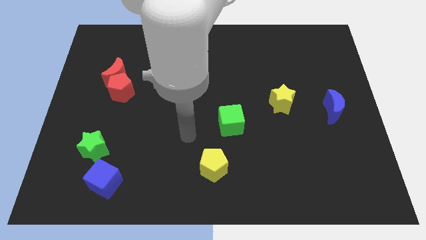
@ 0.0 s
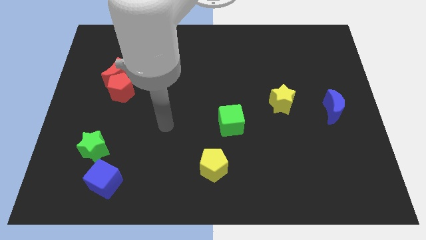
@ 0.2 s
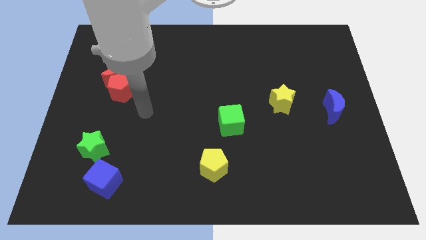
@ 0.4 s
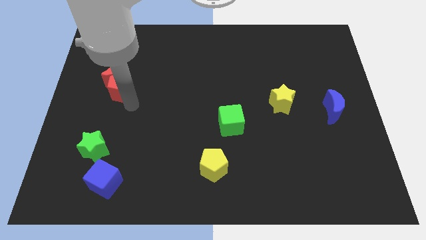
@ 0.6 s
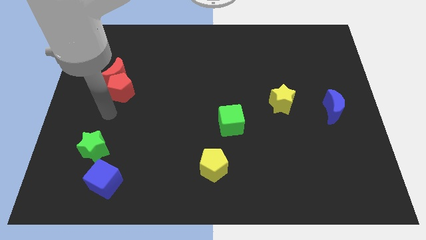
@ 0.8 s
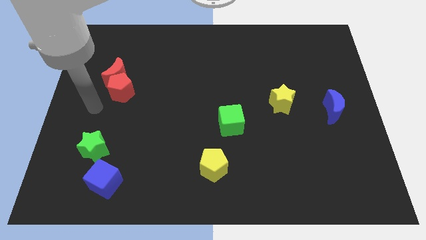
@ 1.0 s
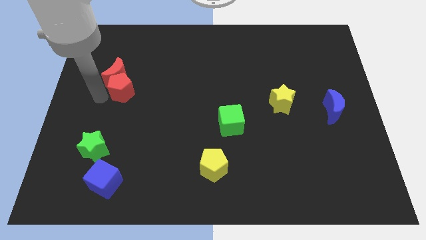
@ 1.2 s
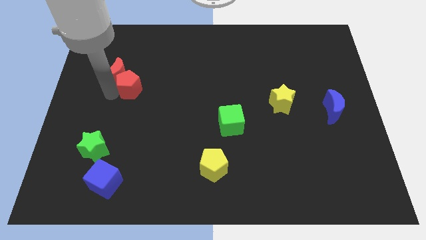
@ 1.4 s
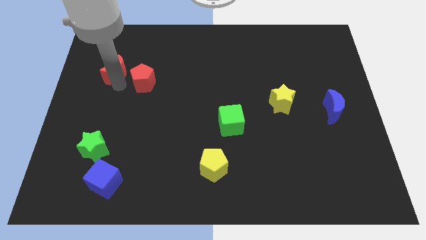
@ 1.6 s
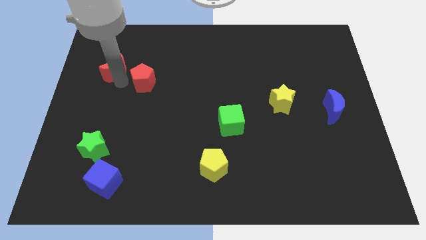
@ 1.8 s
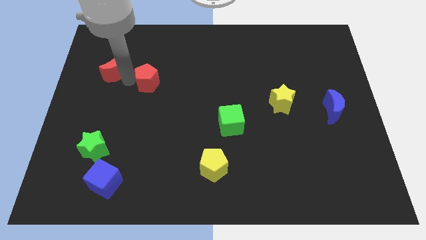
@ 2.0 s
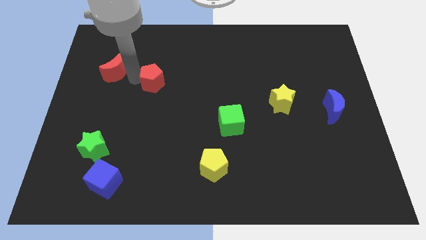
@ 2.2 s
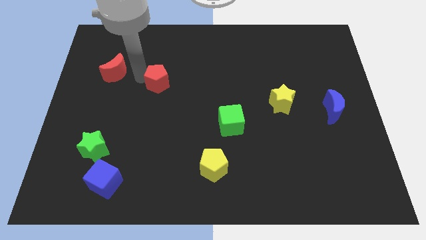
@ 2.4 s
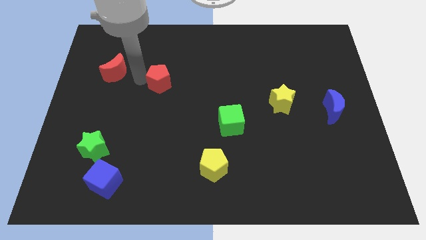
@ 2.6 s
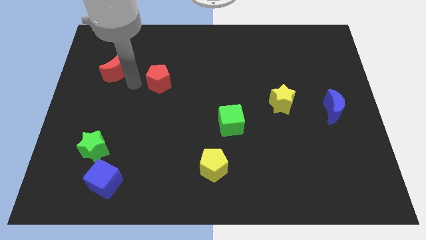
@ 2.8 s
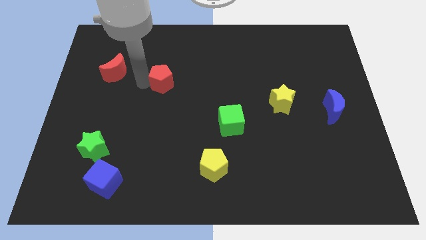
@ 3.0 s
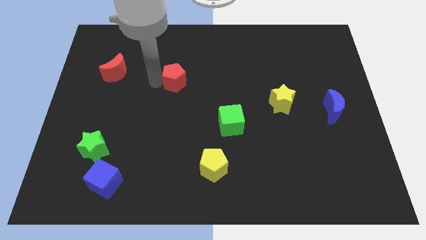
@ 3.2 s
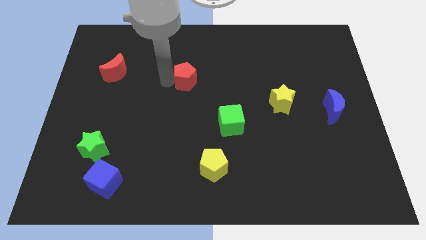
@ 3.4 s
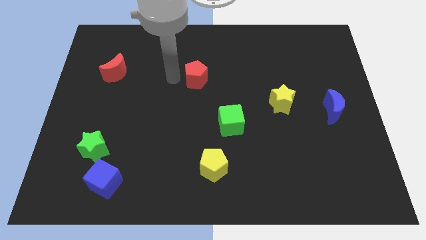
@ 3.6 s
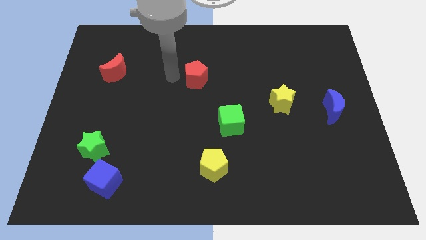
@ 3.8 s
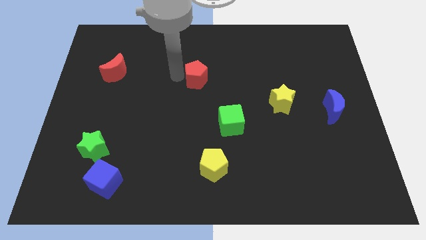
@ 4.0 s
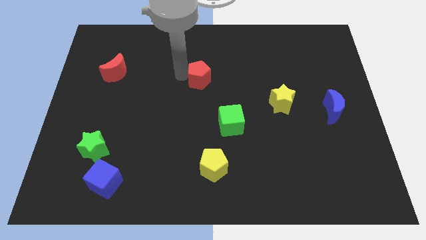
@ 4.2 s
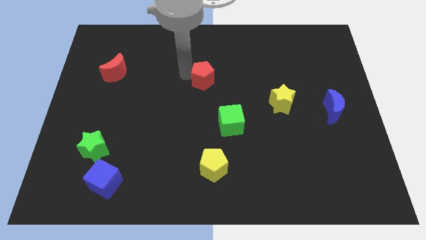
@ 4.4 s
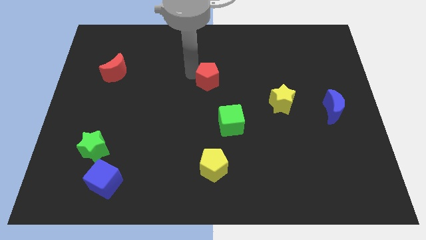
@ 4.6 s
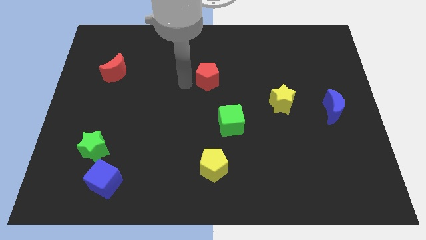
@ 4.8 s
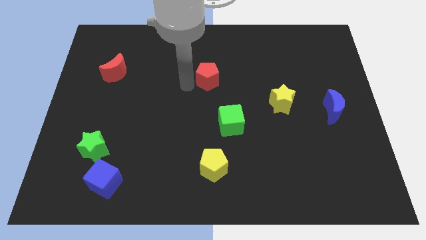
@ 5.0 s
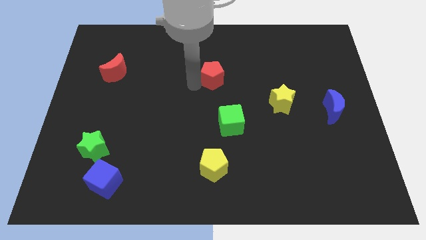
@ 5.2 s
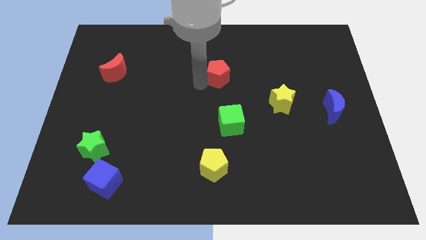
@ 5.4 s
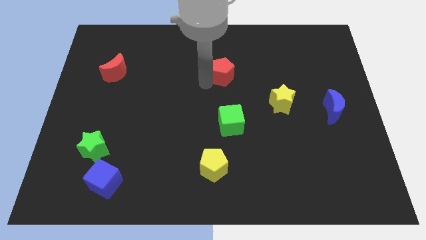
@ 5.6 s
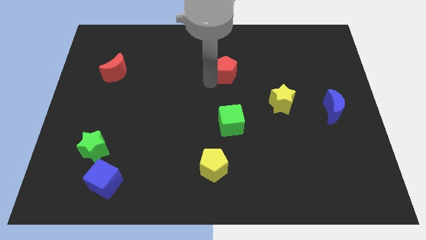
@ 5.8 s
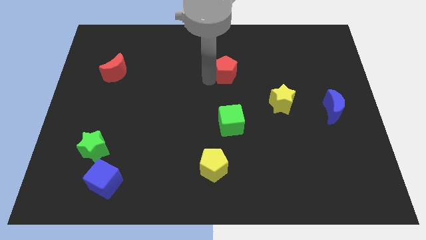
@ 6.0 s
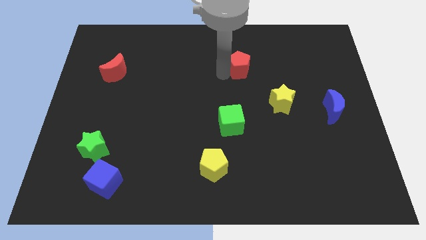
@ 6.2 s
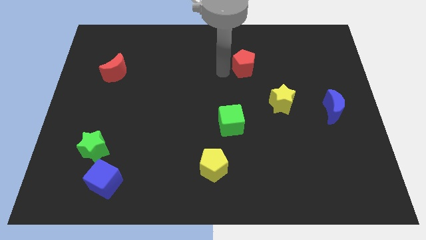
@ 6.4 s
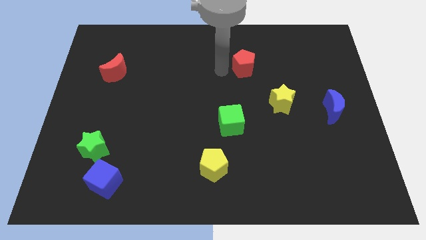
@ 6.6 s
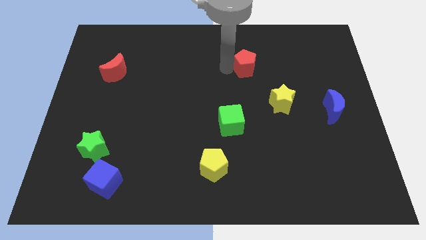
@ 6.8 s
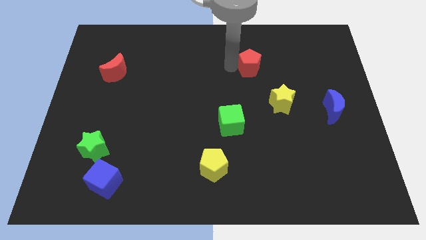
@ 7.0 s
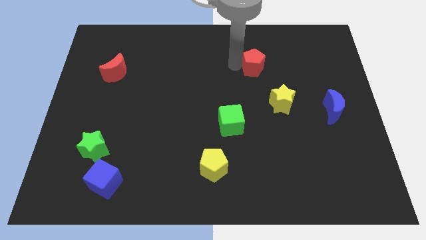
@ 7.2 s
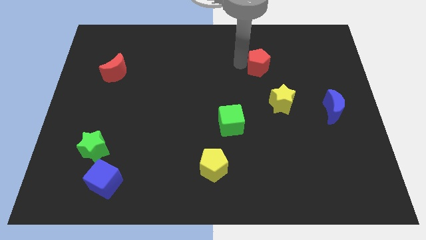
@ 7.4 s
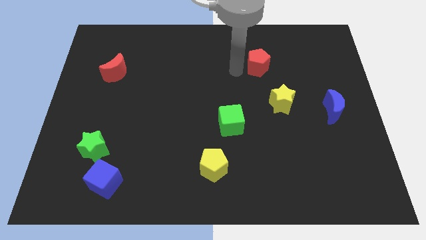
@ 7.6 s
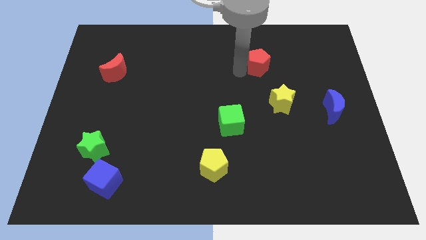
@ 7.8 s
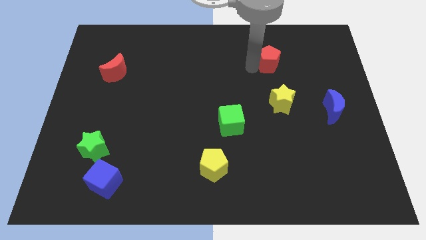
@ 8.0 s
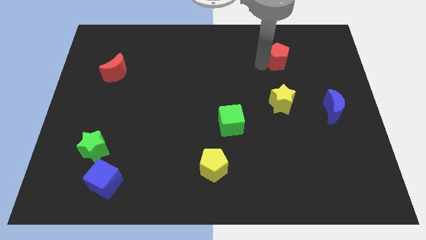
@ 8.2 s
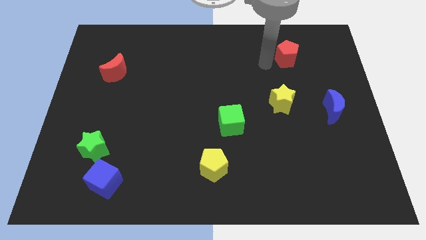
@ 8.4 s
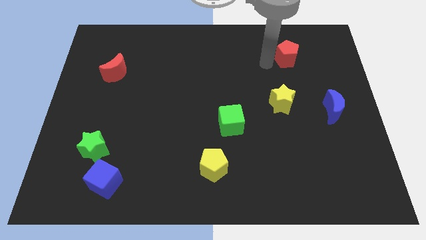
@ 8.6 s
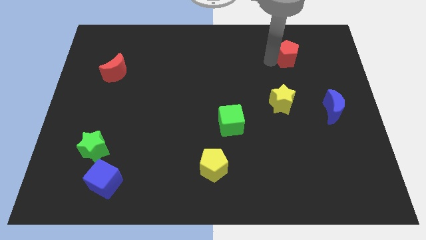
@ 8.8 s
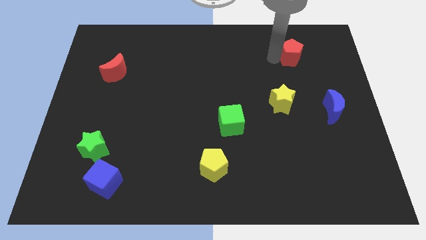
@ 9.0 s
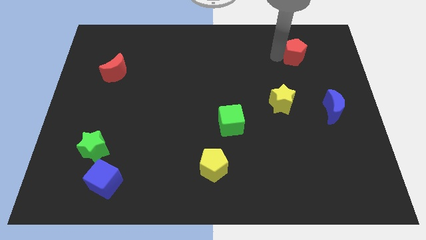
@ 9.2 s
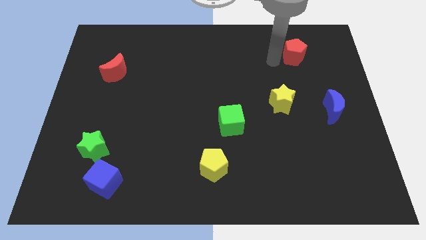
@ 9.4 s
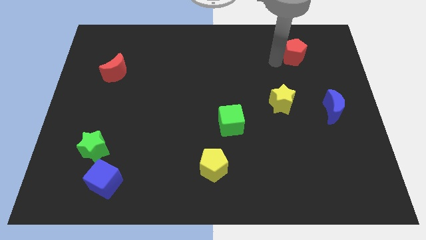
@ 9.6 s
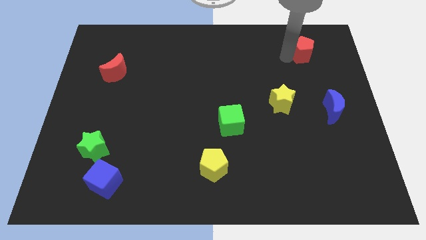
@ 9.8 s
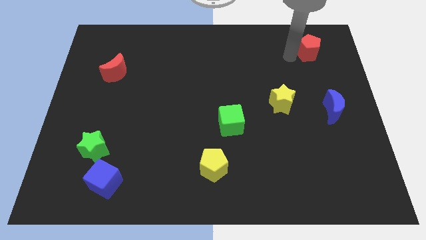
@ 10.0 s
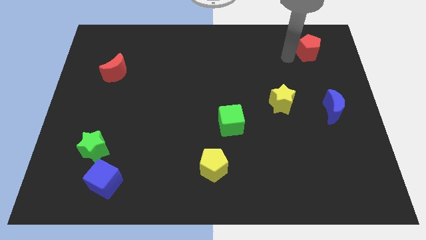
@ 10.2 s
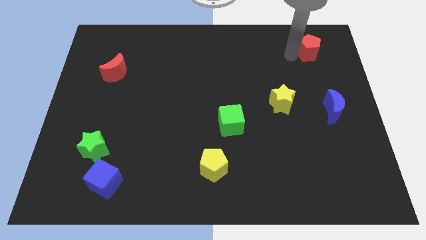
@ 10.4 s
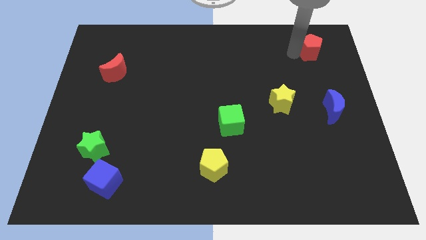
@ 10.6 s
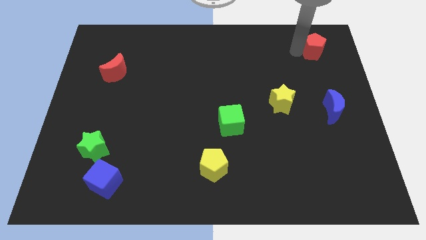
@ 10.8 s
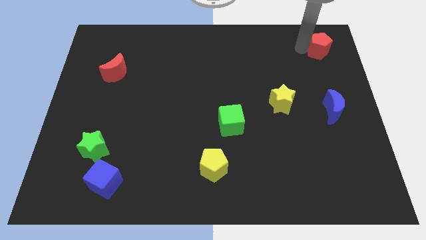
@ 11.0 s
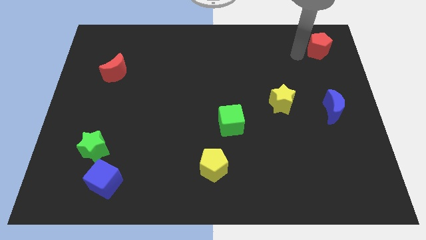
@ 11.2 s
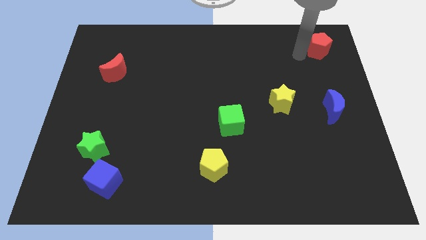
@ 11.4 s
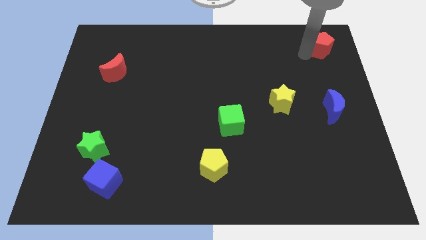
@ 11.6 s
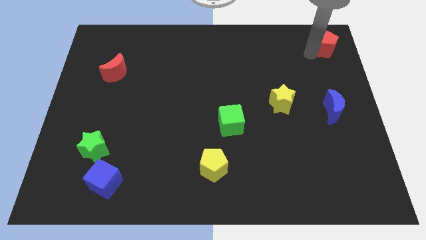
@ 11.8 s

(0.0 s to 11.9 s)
push the red pentagon to the upper right corner

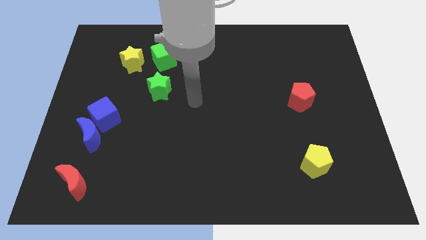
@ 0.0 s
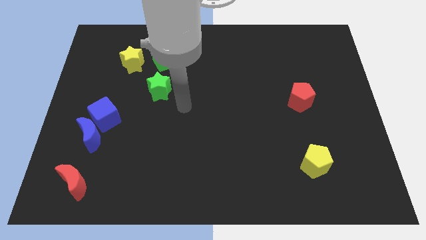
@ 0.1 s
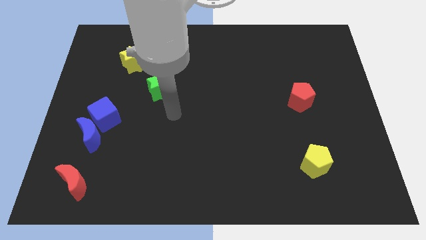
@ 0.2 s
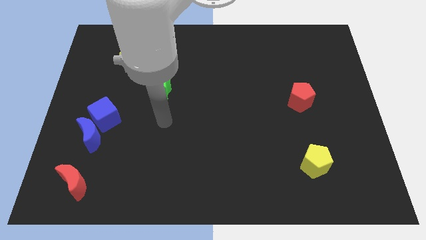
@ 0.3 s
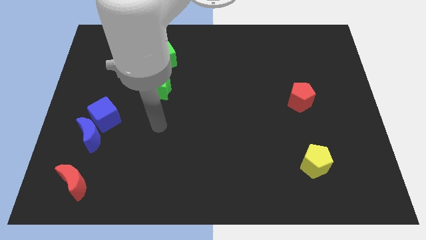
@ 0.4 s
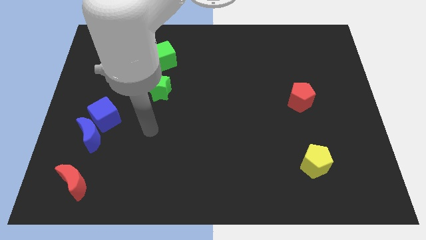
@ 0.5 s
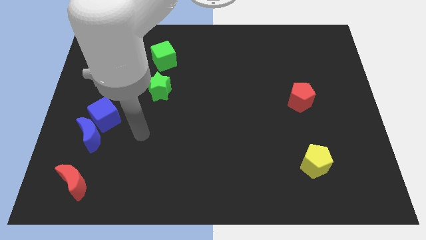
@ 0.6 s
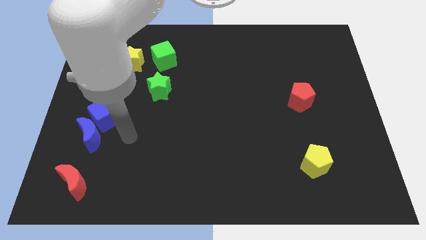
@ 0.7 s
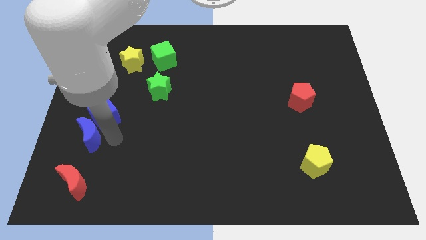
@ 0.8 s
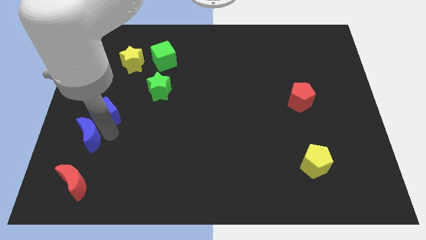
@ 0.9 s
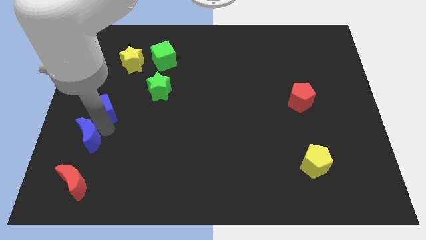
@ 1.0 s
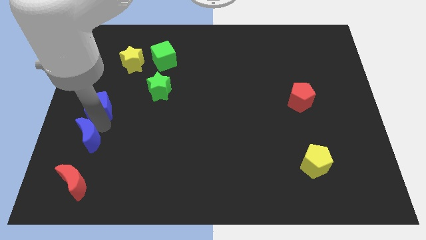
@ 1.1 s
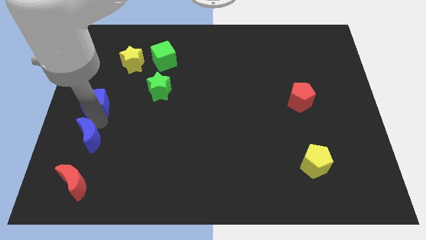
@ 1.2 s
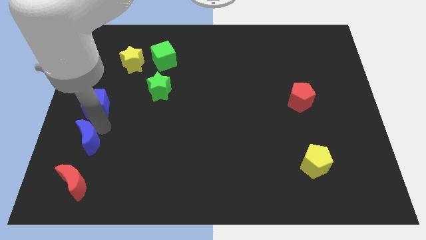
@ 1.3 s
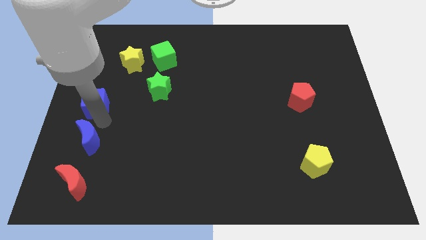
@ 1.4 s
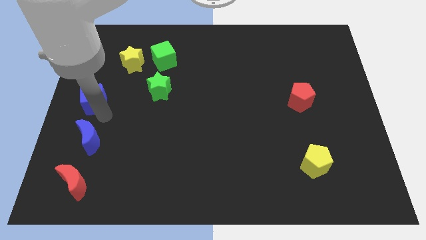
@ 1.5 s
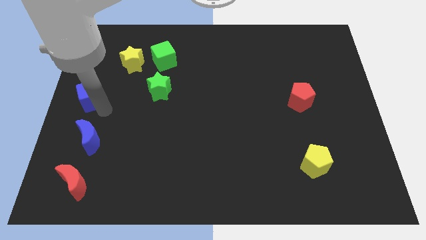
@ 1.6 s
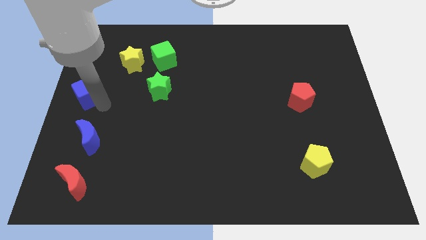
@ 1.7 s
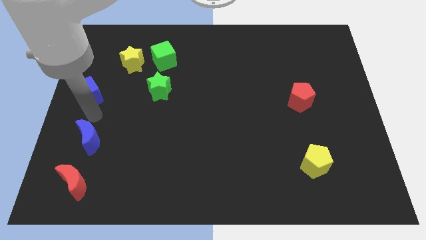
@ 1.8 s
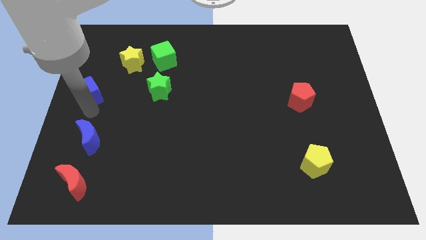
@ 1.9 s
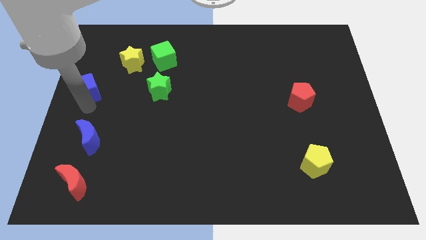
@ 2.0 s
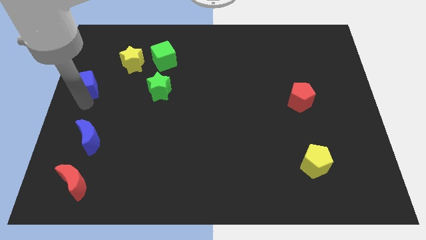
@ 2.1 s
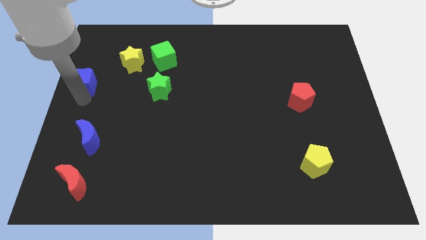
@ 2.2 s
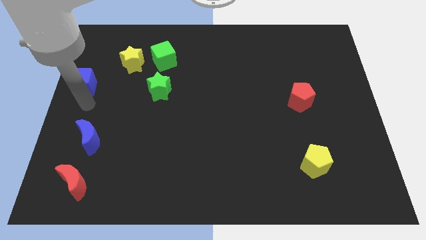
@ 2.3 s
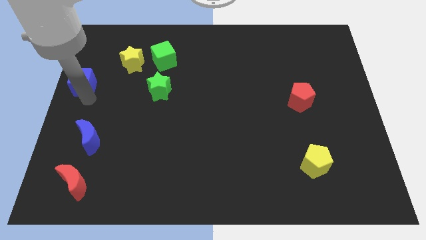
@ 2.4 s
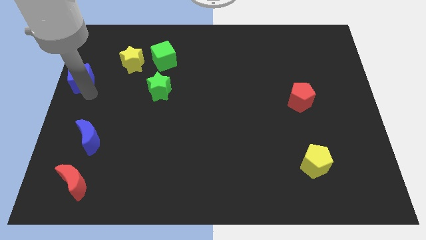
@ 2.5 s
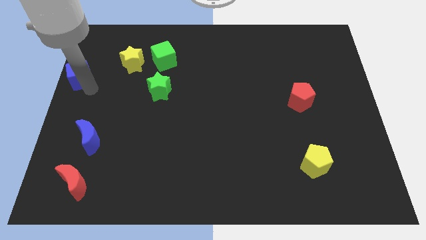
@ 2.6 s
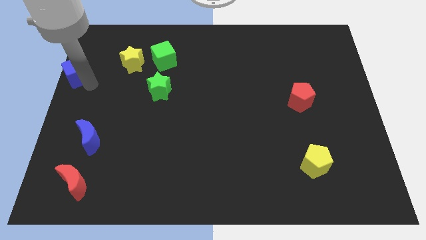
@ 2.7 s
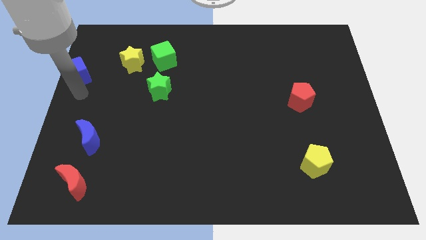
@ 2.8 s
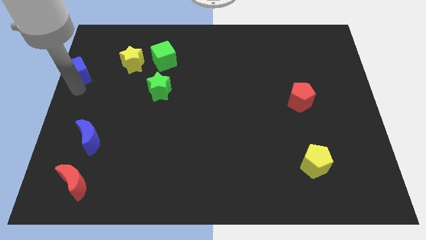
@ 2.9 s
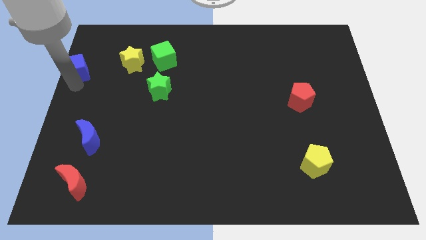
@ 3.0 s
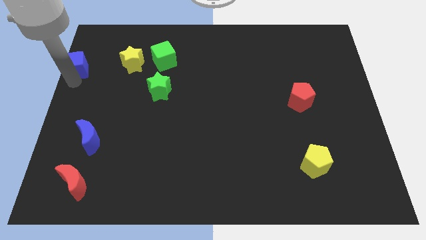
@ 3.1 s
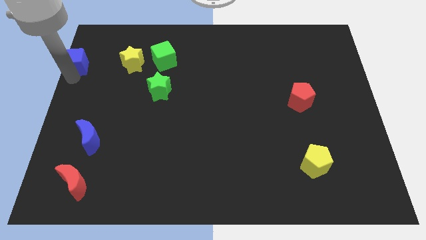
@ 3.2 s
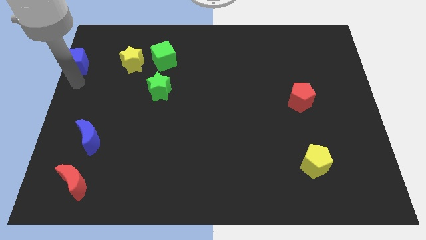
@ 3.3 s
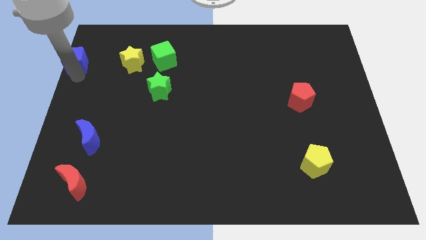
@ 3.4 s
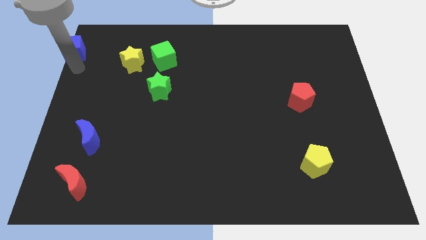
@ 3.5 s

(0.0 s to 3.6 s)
slide the blue cube to the top left
